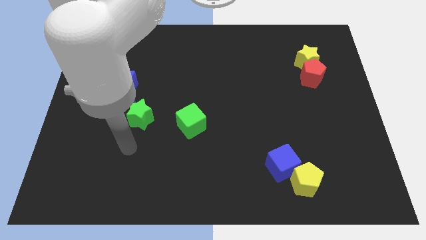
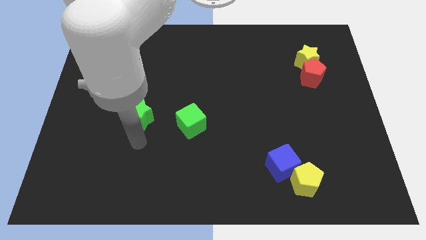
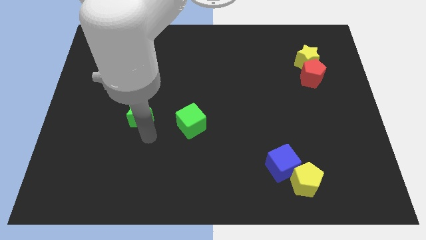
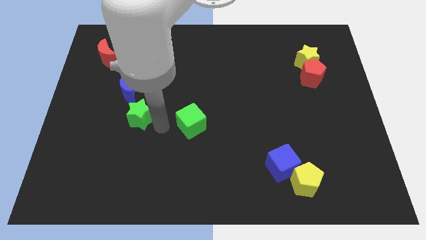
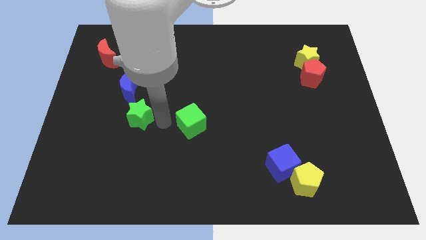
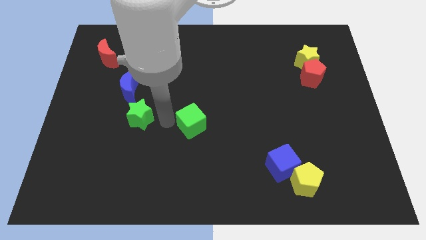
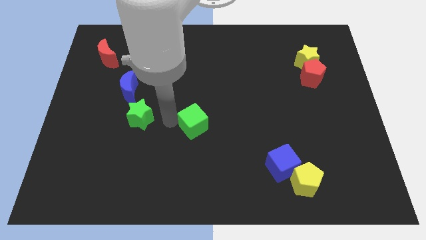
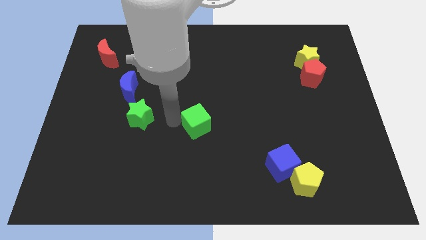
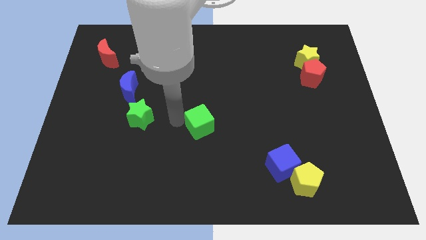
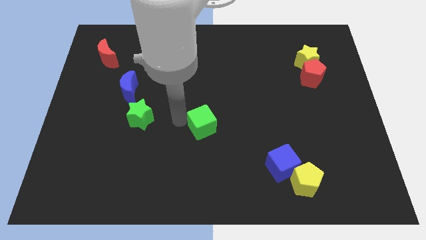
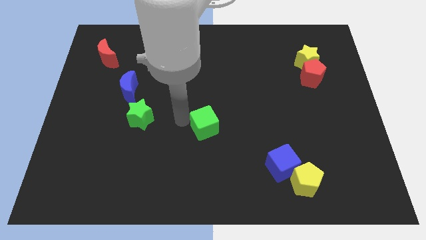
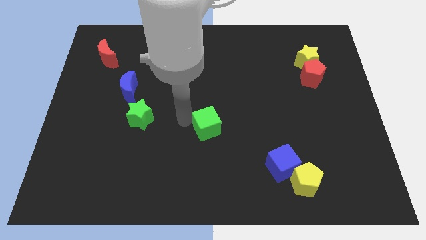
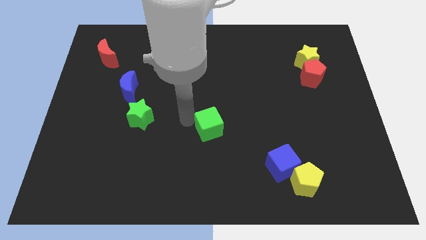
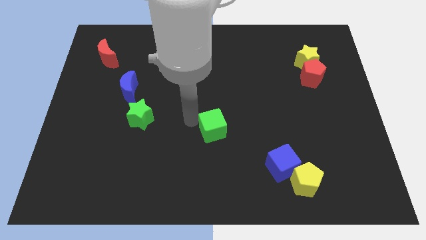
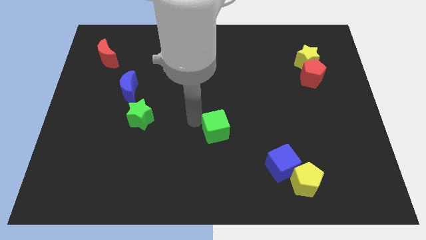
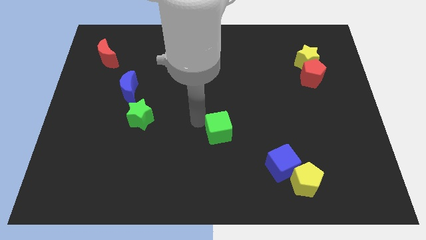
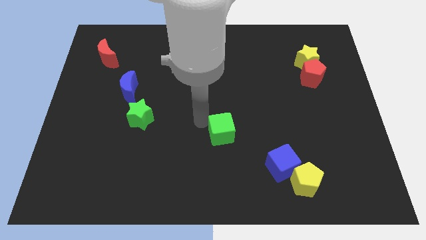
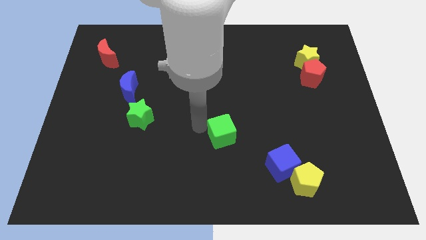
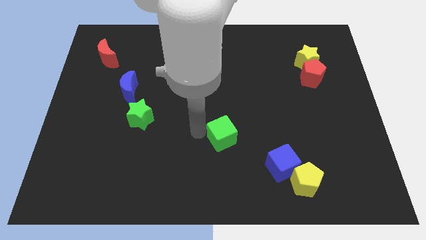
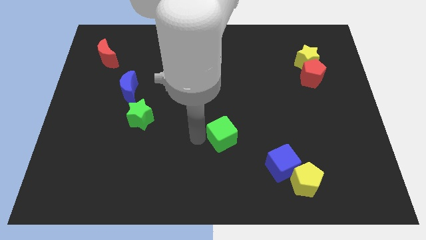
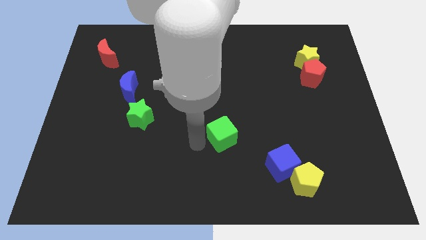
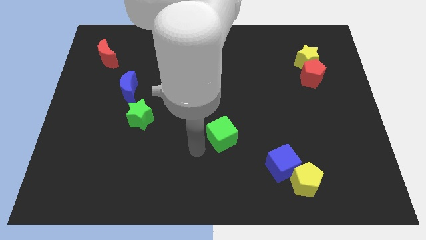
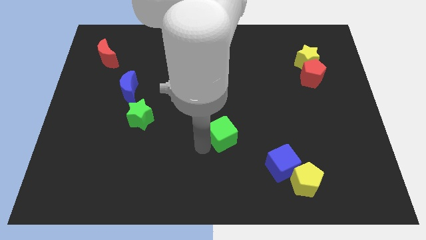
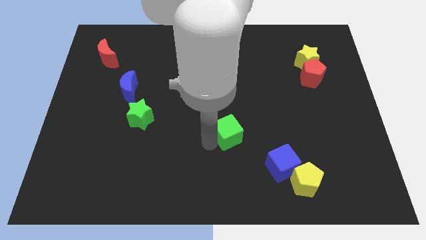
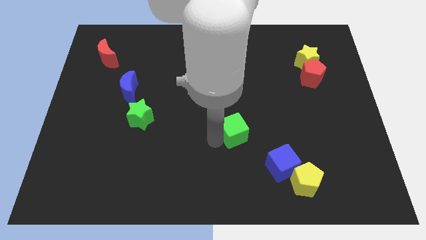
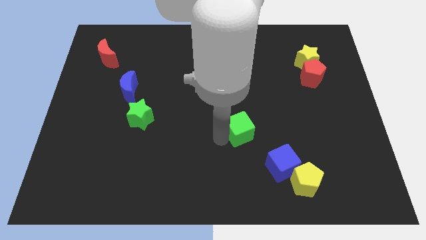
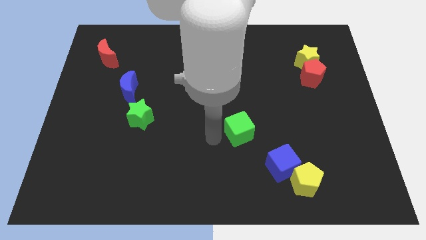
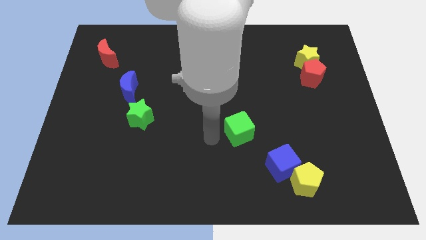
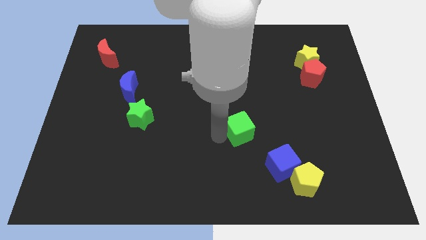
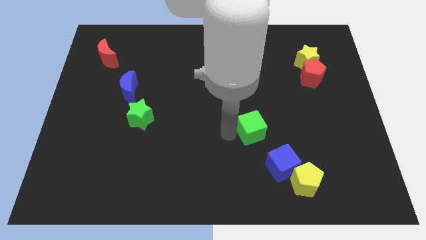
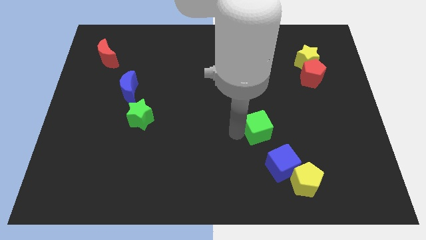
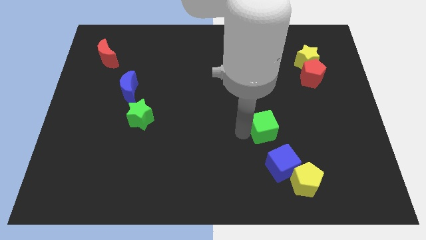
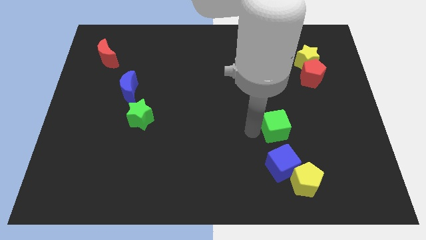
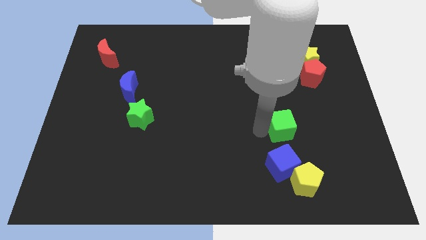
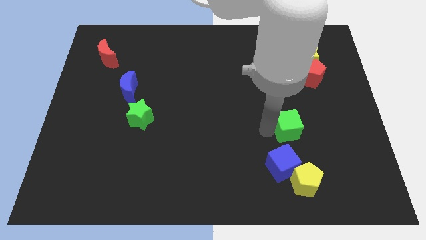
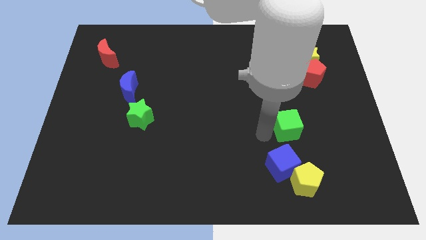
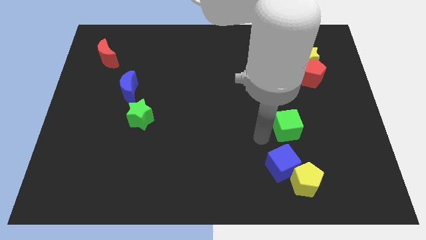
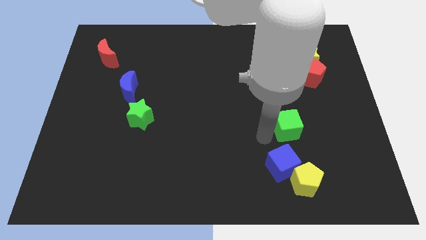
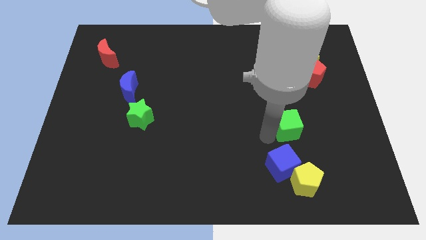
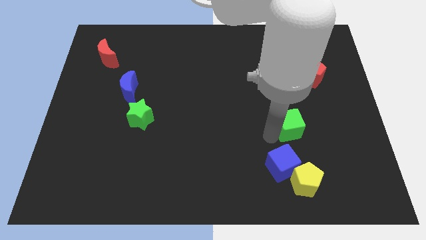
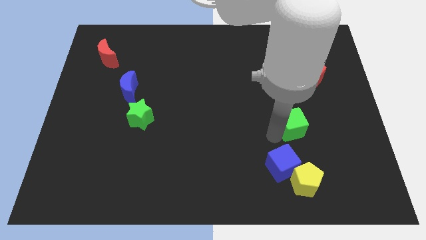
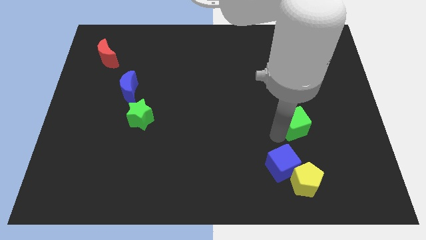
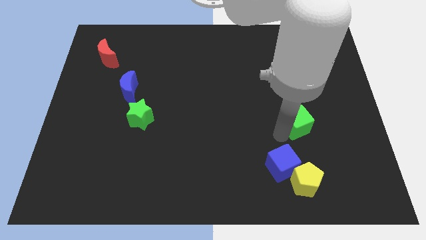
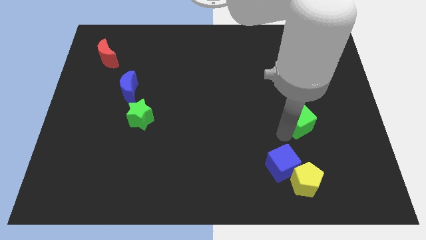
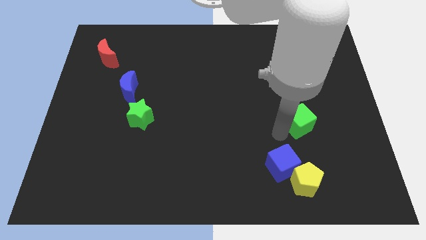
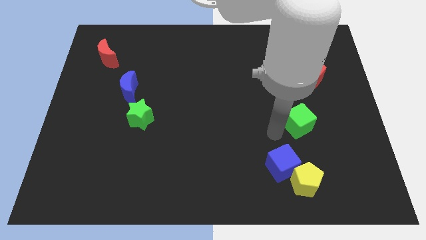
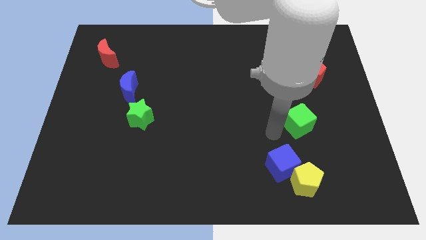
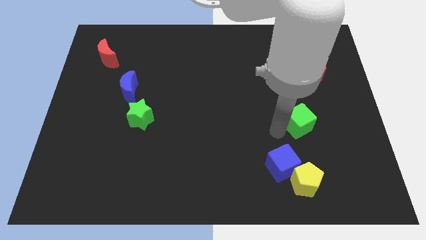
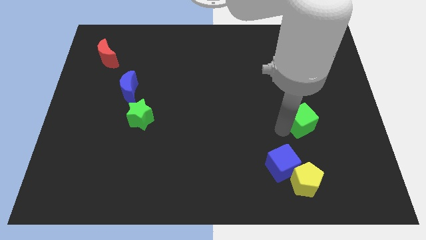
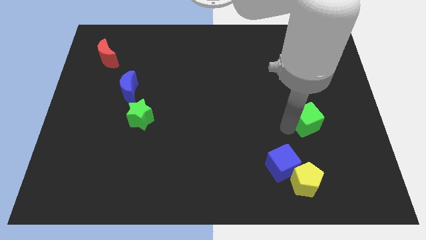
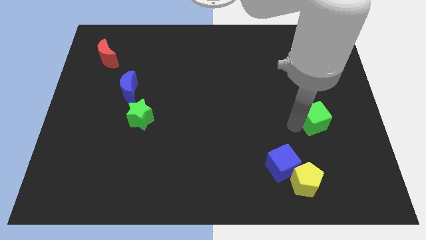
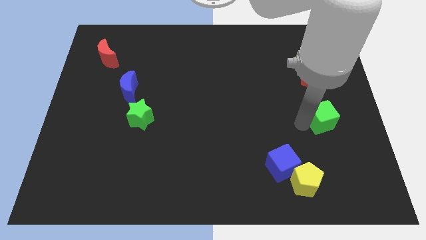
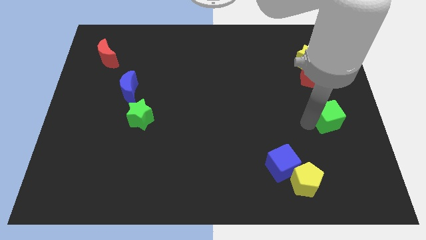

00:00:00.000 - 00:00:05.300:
move the green cube to the center right

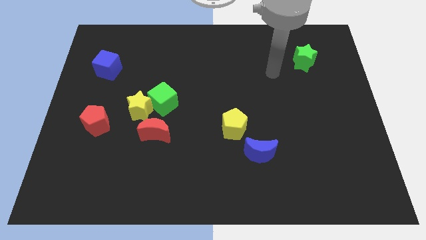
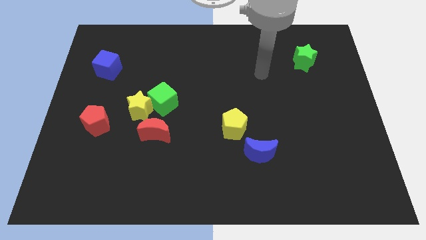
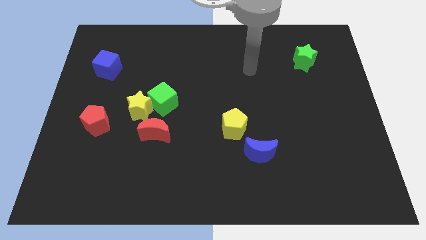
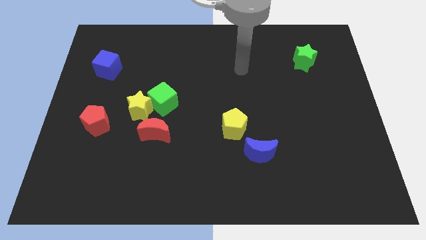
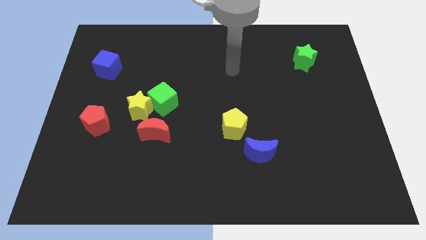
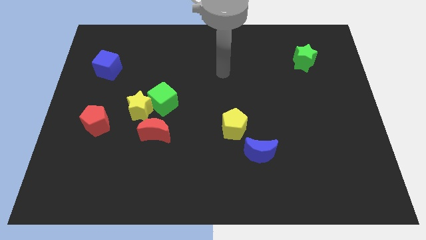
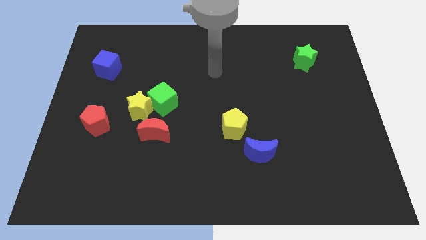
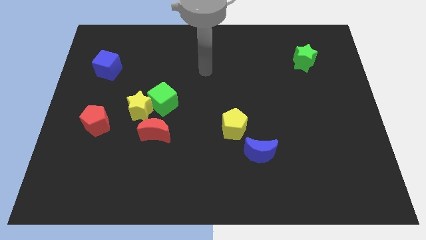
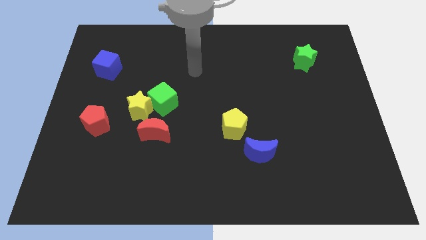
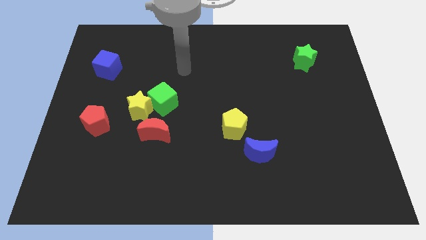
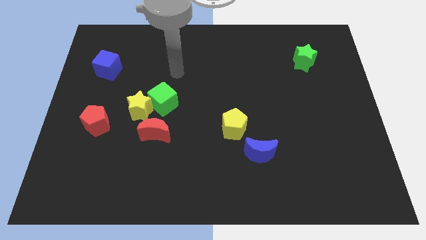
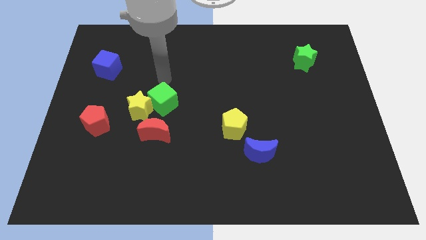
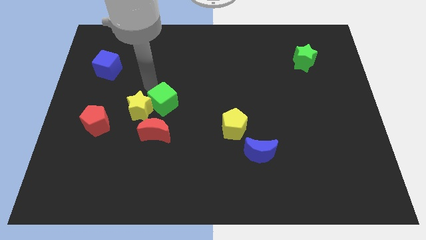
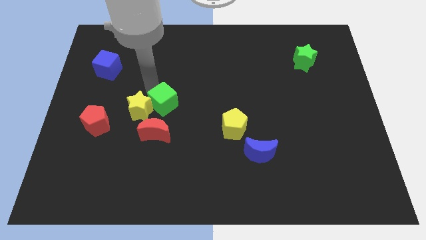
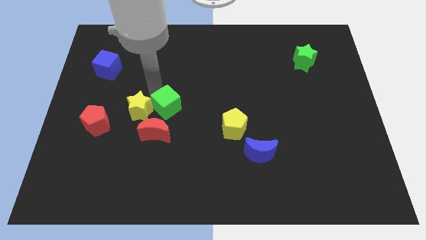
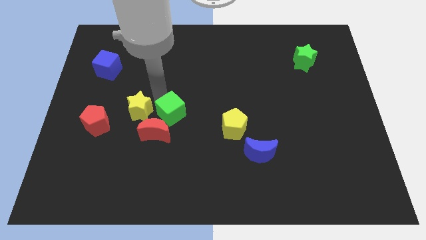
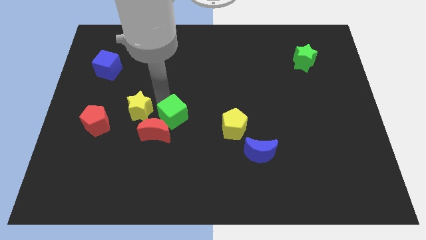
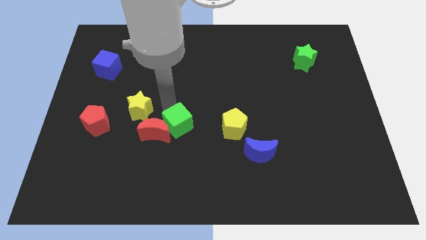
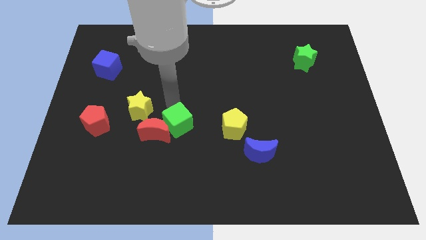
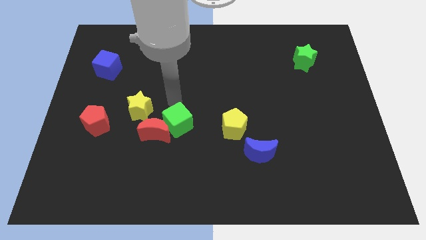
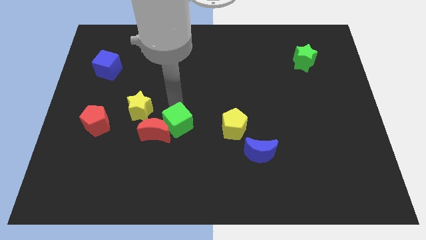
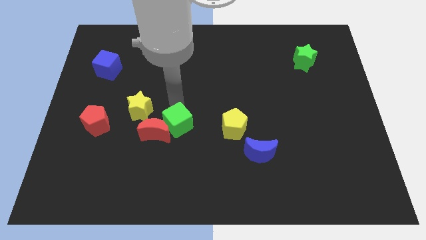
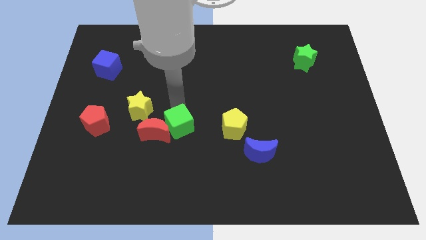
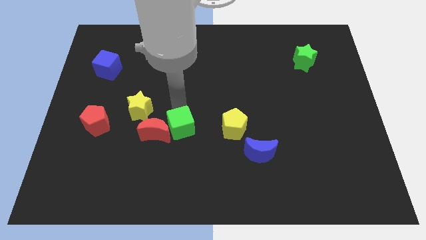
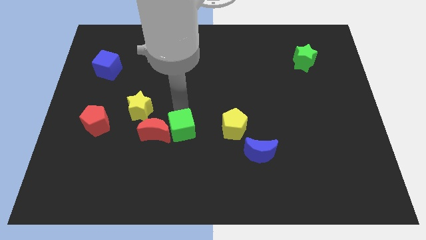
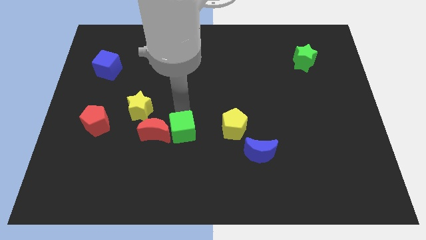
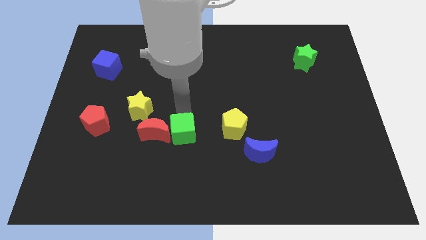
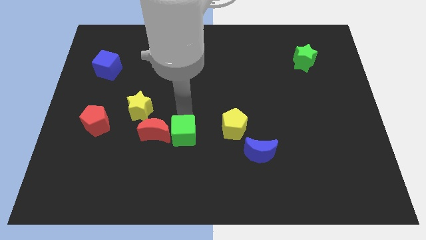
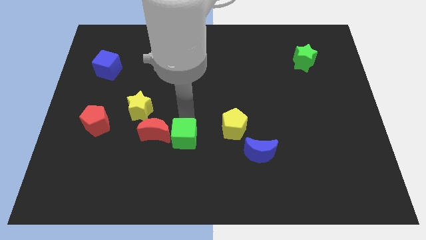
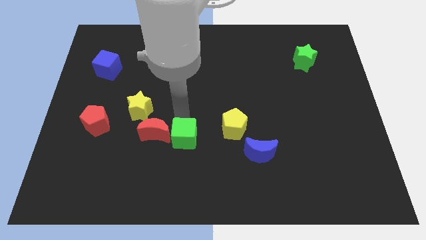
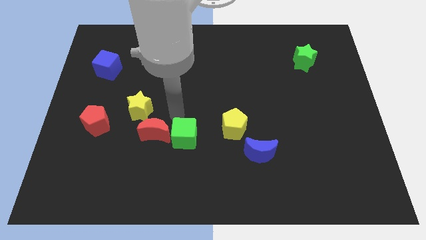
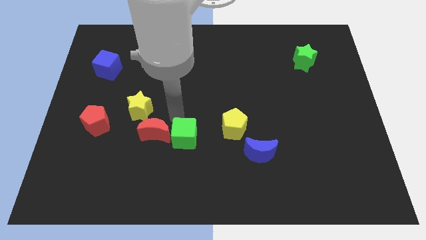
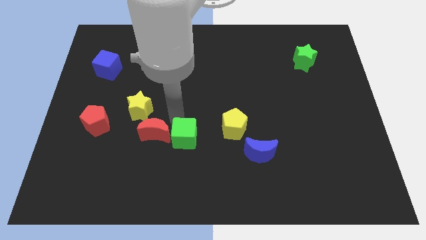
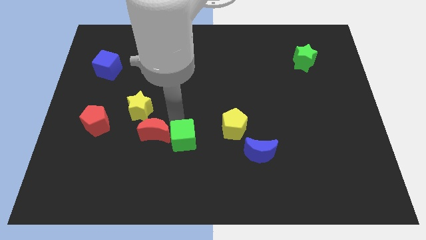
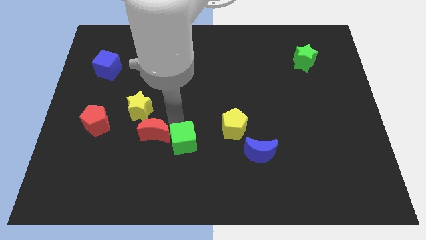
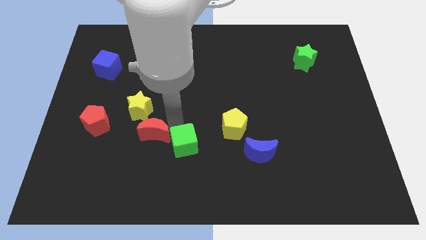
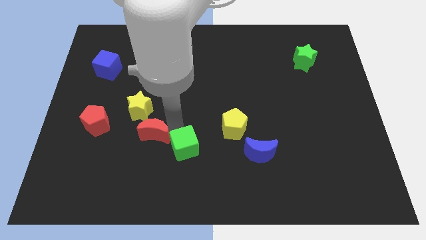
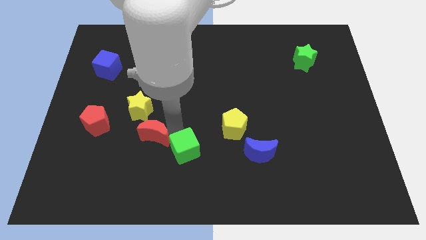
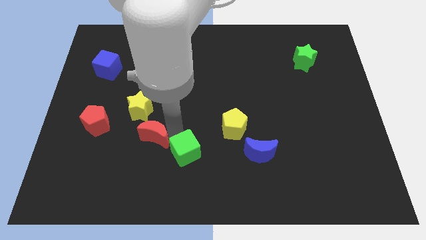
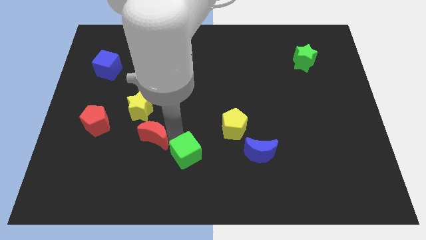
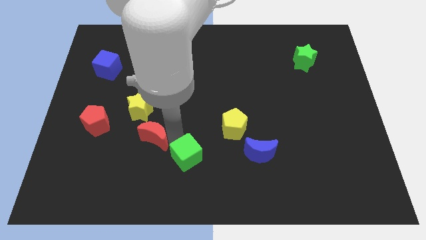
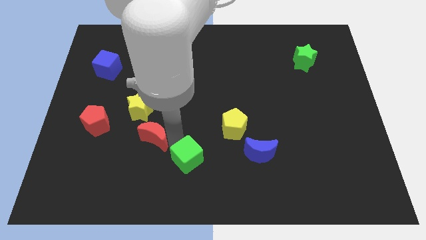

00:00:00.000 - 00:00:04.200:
push the green cube to the bottom side
